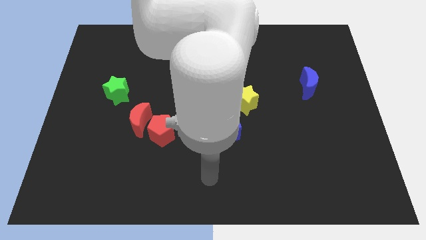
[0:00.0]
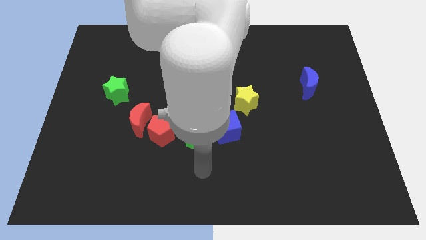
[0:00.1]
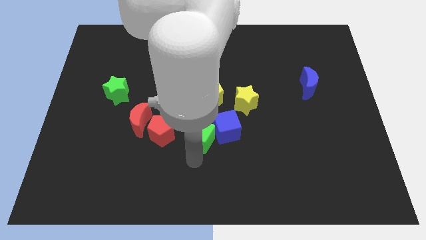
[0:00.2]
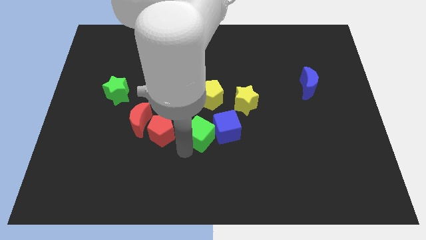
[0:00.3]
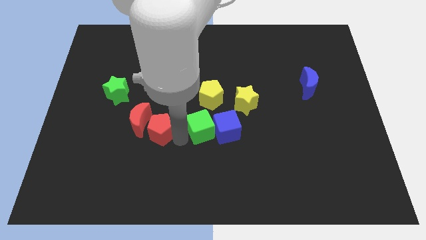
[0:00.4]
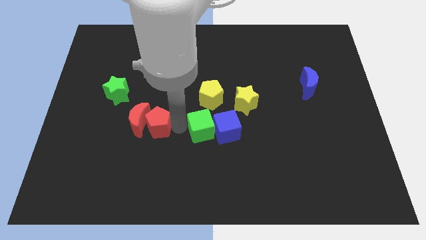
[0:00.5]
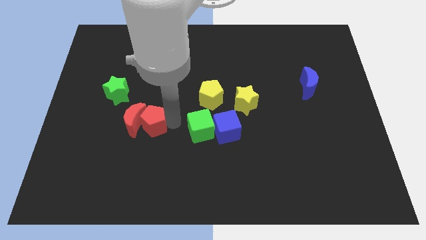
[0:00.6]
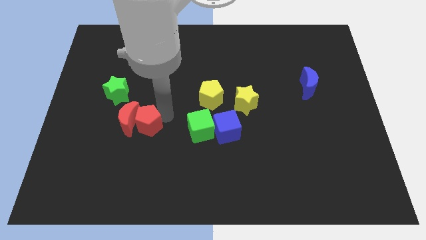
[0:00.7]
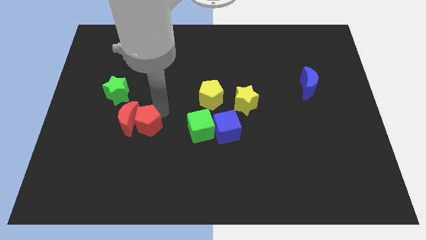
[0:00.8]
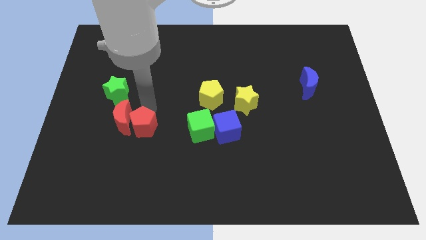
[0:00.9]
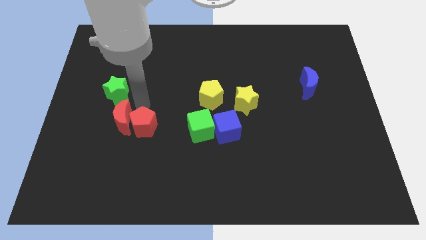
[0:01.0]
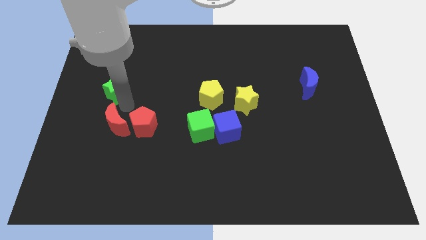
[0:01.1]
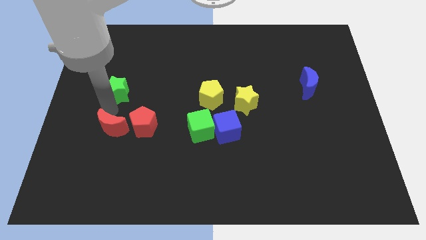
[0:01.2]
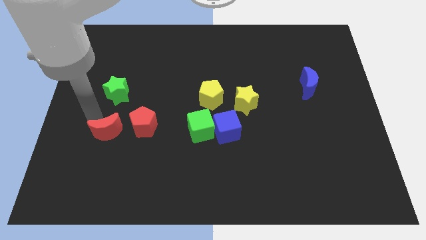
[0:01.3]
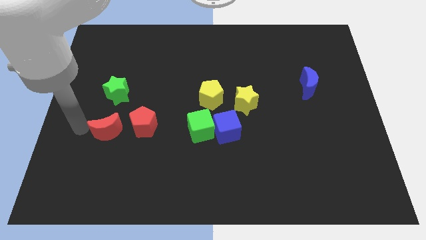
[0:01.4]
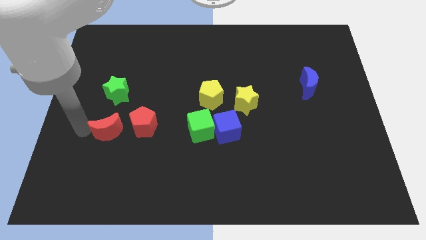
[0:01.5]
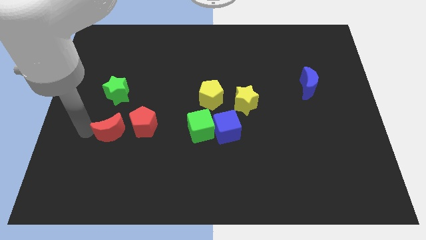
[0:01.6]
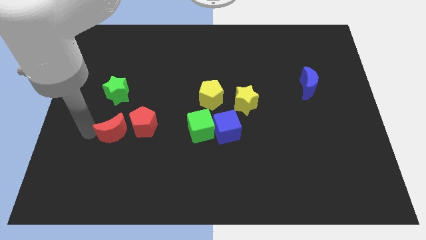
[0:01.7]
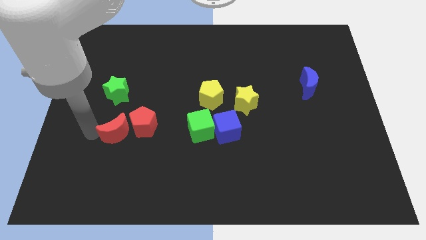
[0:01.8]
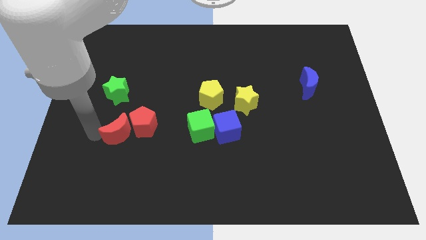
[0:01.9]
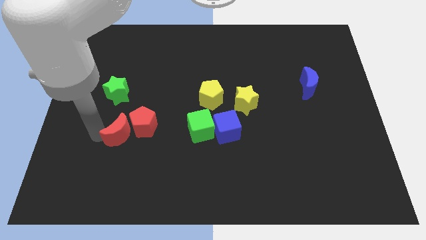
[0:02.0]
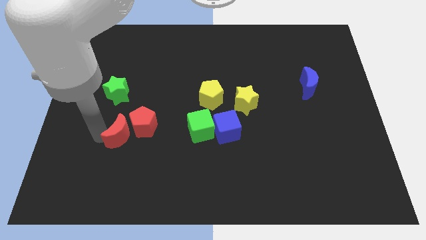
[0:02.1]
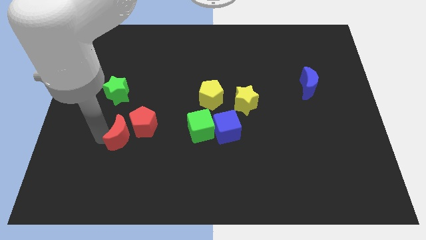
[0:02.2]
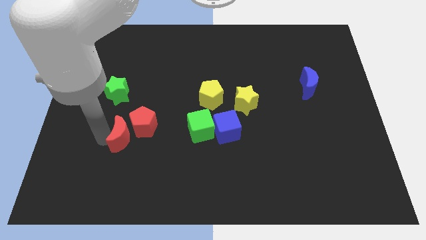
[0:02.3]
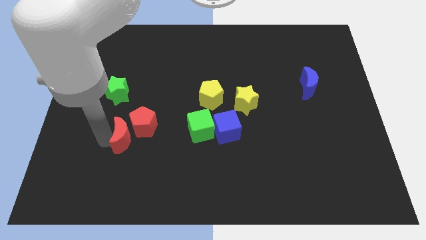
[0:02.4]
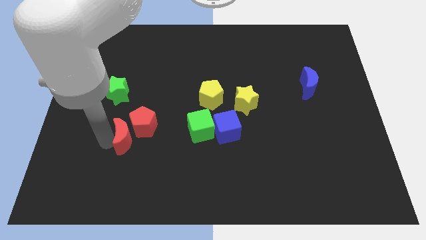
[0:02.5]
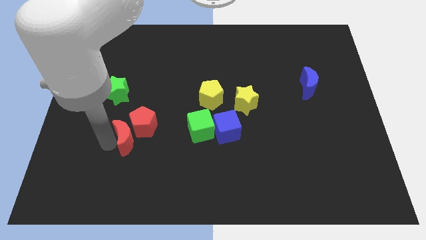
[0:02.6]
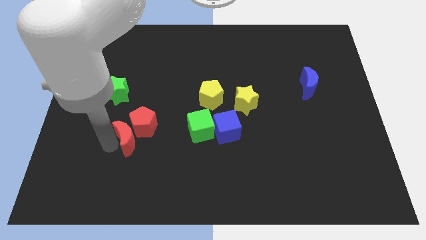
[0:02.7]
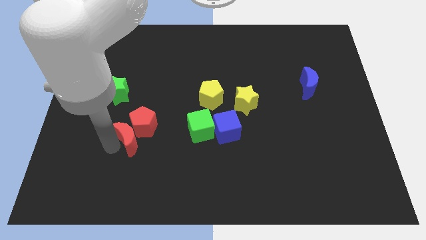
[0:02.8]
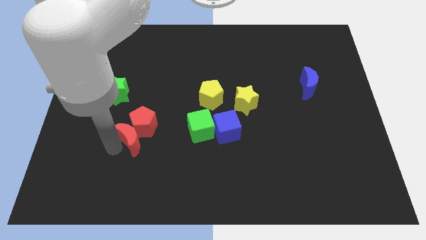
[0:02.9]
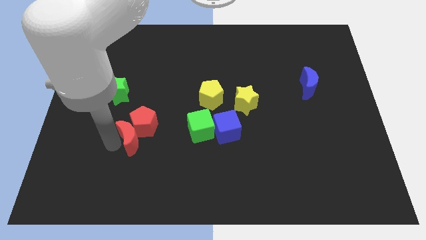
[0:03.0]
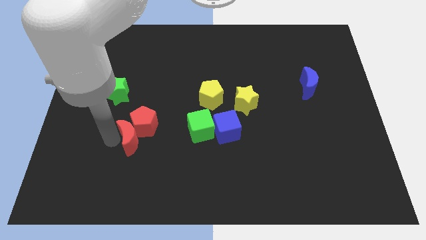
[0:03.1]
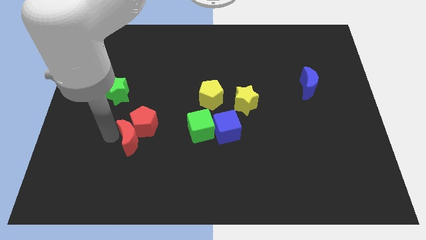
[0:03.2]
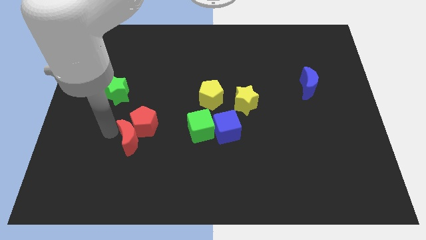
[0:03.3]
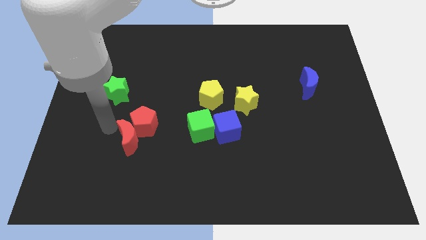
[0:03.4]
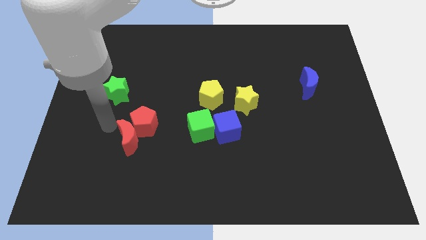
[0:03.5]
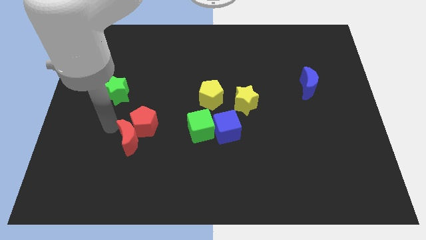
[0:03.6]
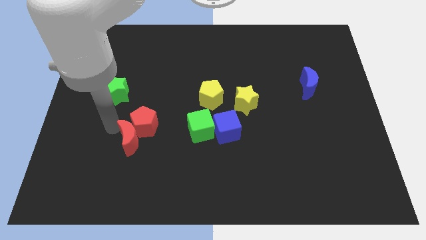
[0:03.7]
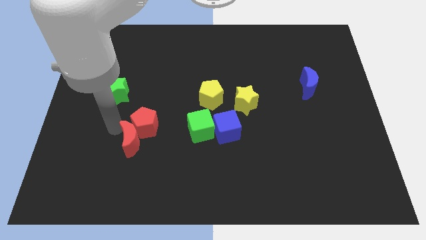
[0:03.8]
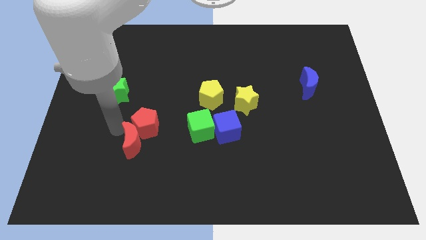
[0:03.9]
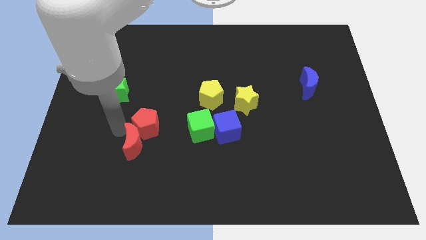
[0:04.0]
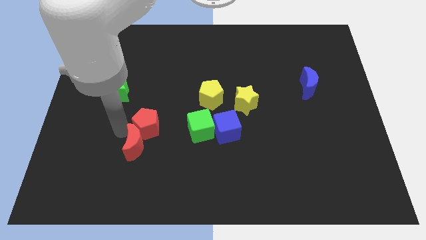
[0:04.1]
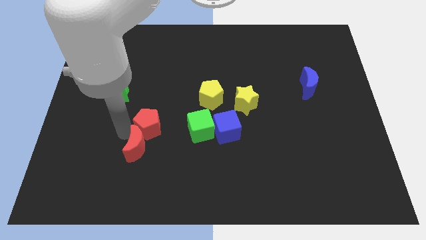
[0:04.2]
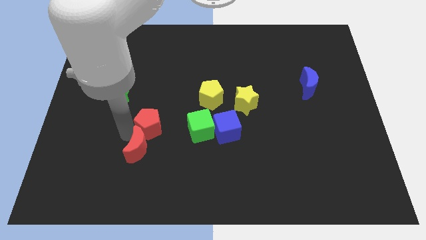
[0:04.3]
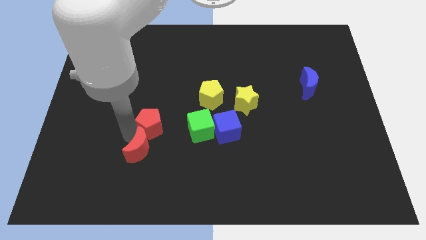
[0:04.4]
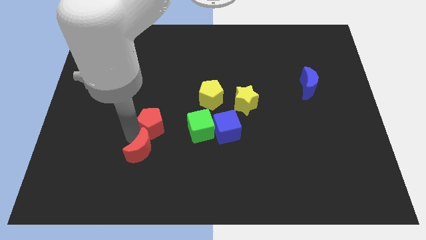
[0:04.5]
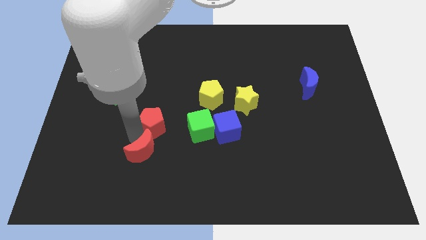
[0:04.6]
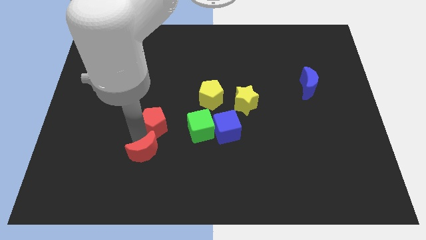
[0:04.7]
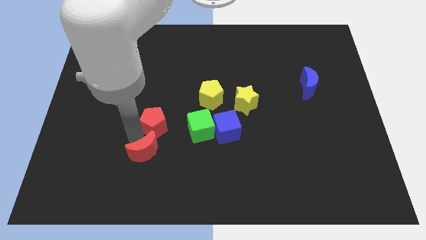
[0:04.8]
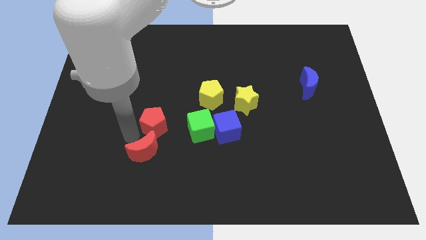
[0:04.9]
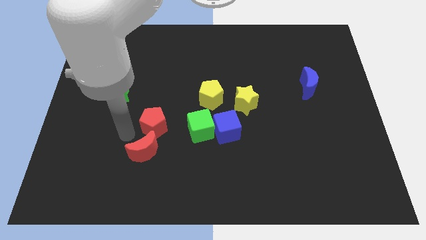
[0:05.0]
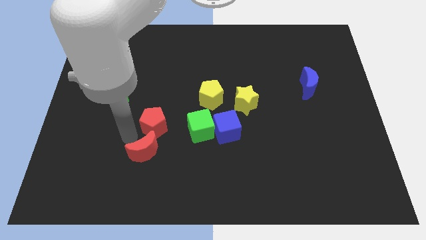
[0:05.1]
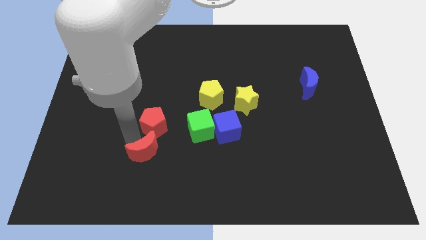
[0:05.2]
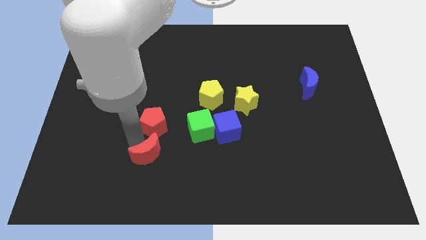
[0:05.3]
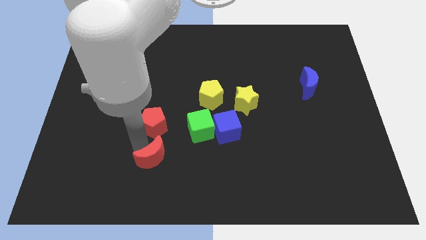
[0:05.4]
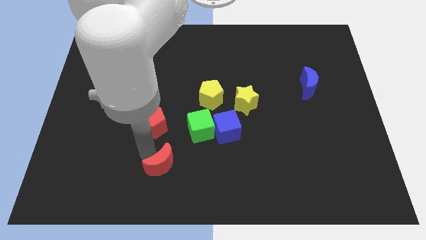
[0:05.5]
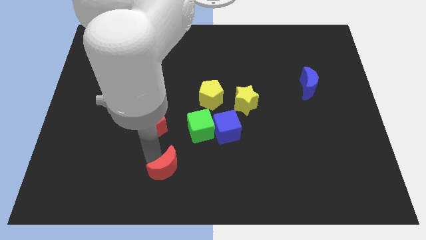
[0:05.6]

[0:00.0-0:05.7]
move the red moon to the bottom side

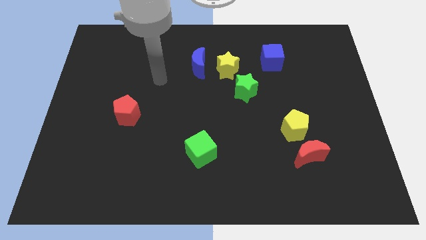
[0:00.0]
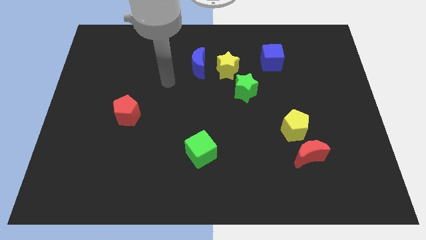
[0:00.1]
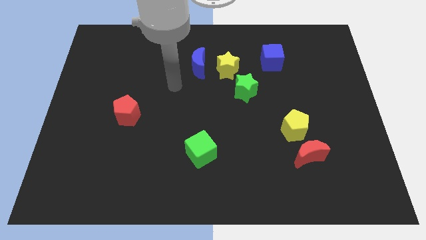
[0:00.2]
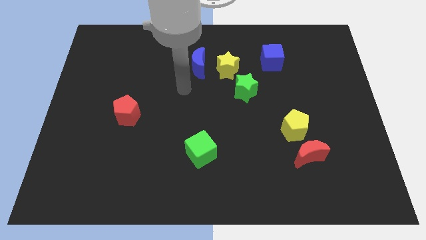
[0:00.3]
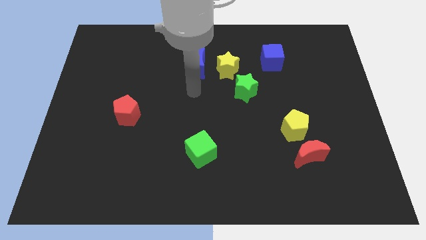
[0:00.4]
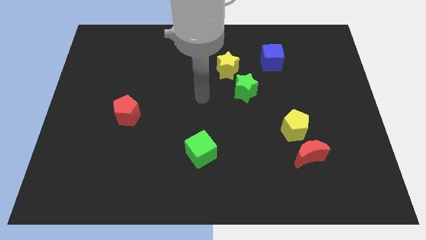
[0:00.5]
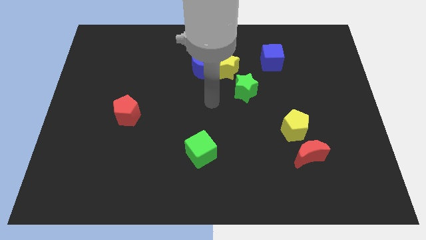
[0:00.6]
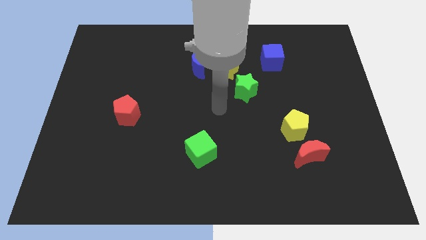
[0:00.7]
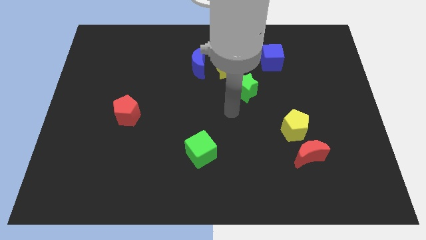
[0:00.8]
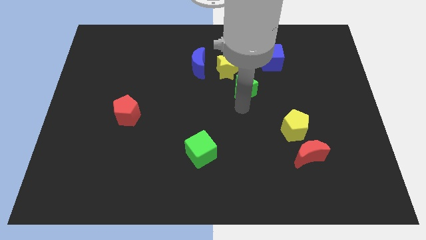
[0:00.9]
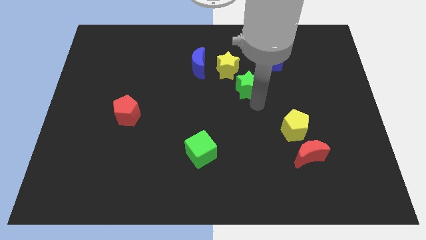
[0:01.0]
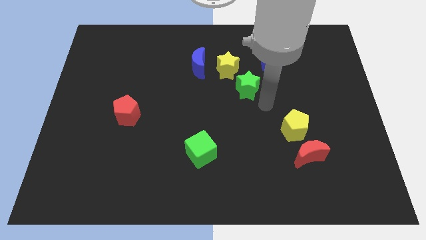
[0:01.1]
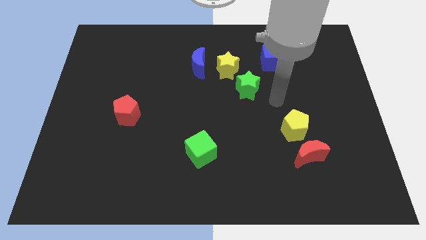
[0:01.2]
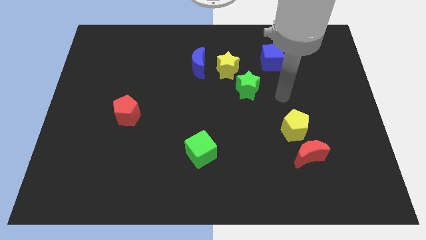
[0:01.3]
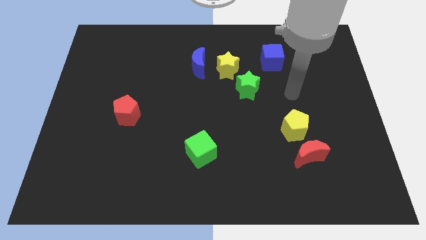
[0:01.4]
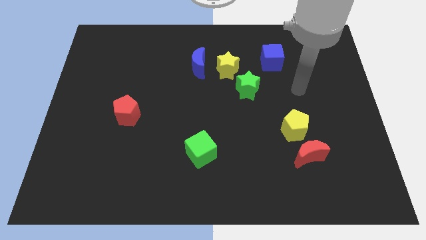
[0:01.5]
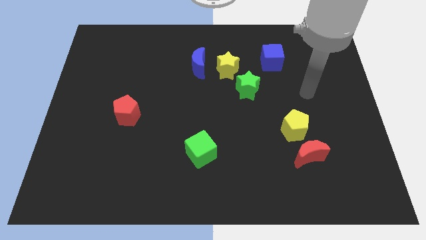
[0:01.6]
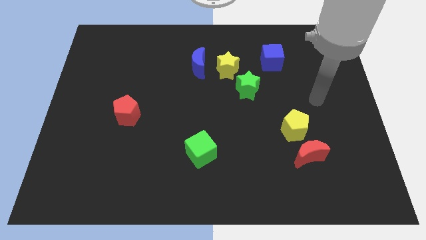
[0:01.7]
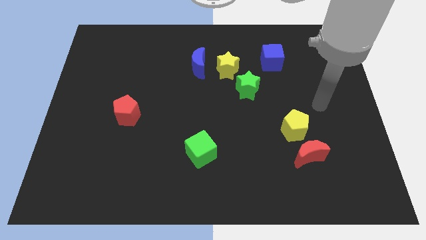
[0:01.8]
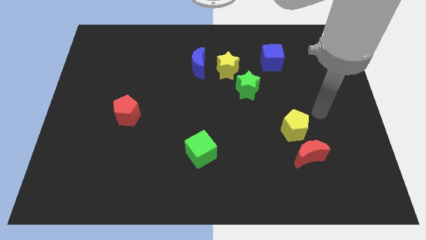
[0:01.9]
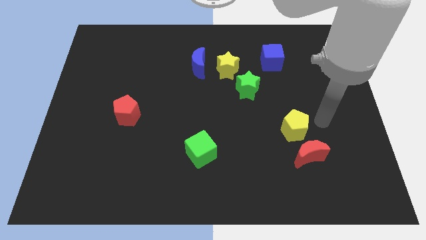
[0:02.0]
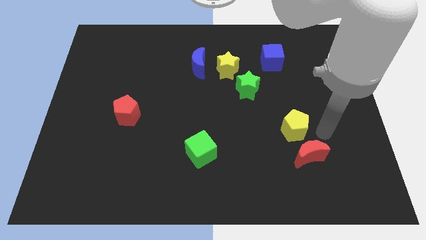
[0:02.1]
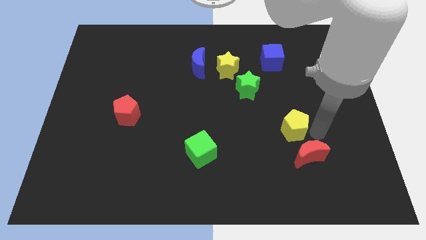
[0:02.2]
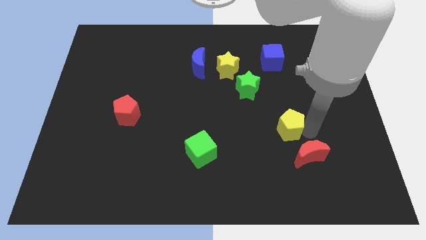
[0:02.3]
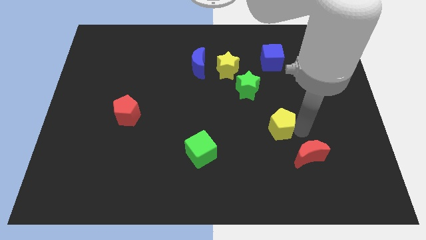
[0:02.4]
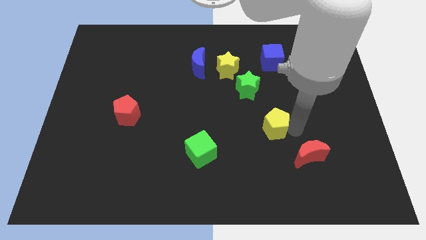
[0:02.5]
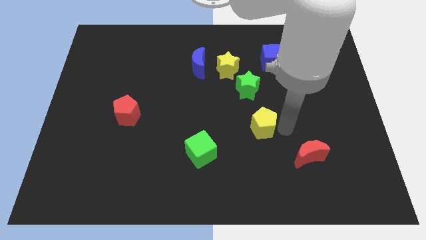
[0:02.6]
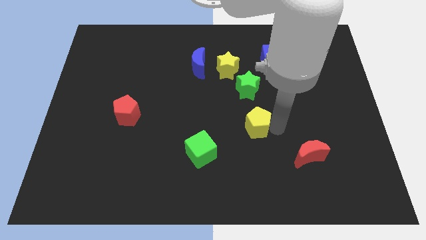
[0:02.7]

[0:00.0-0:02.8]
move the yellow pentagon to the center
